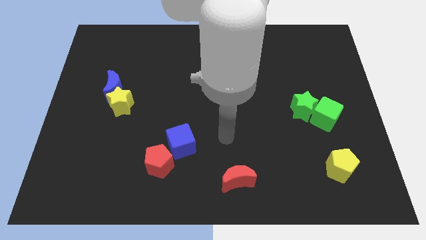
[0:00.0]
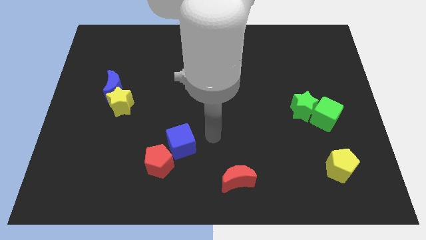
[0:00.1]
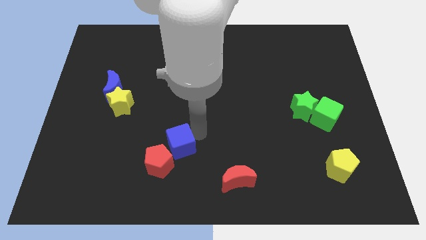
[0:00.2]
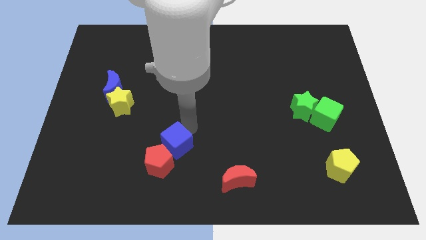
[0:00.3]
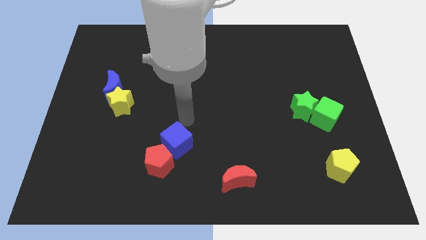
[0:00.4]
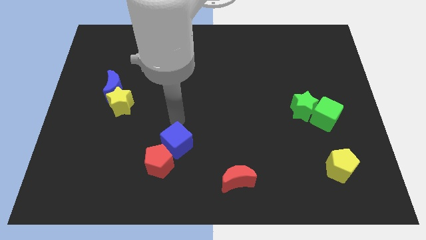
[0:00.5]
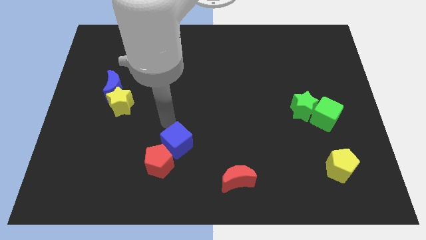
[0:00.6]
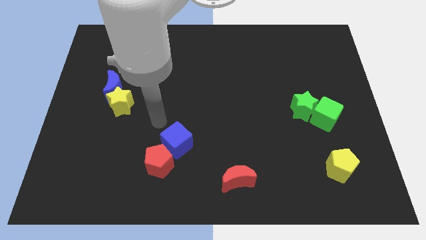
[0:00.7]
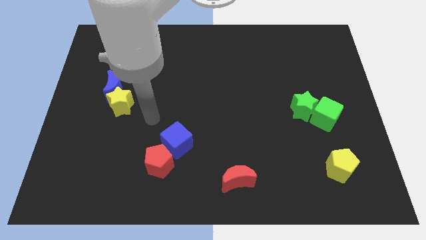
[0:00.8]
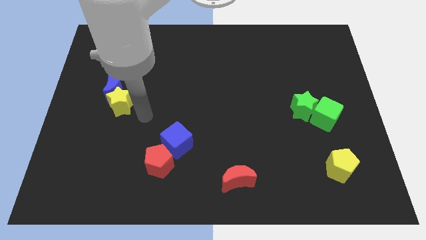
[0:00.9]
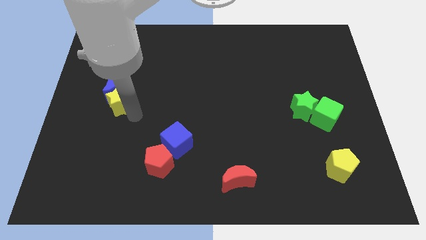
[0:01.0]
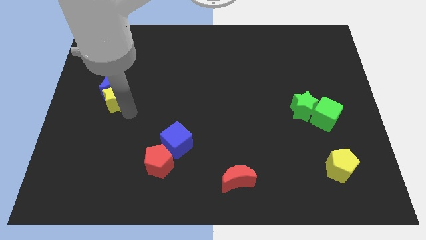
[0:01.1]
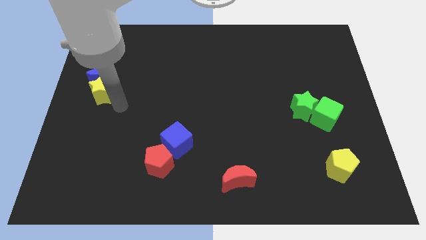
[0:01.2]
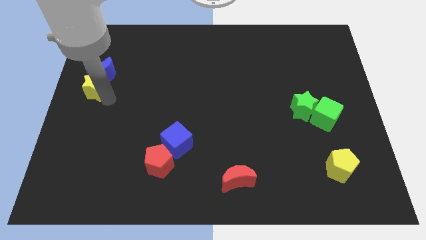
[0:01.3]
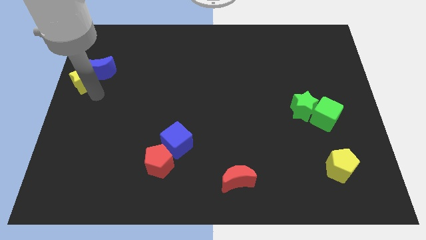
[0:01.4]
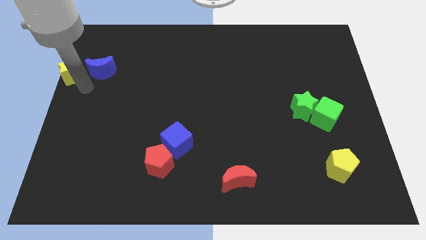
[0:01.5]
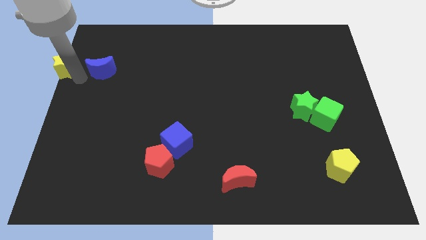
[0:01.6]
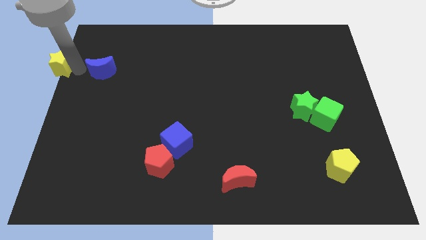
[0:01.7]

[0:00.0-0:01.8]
move the blue moon away from the yellow star

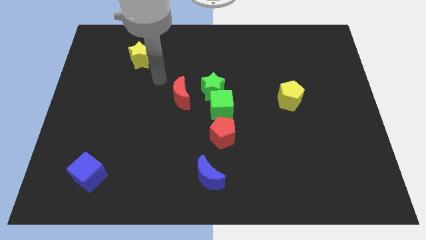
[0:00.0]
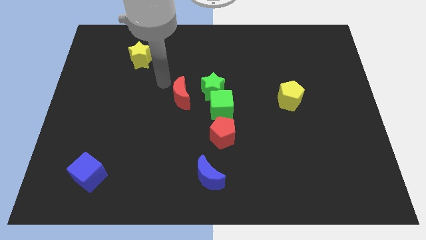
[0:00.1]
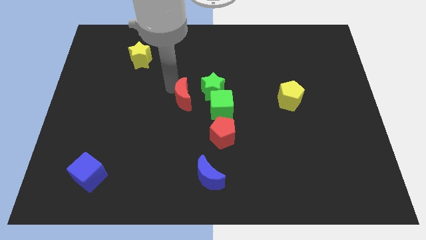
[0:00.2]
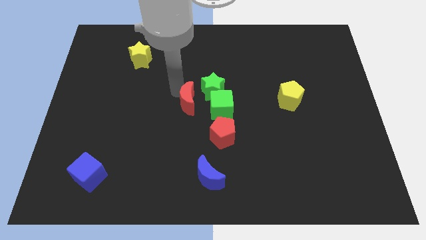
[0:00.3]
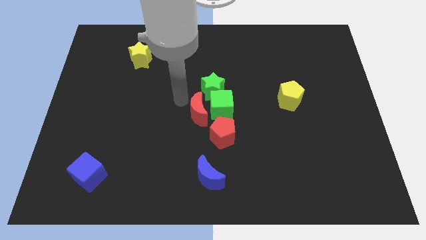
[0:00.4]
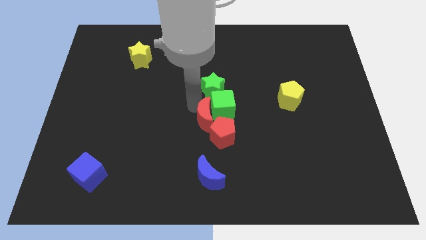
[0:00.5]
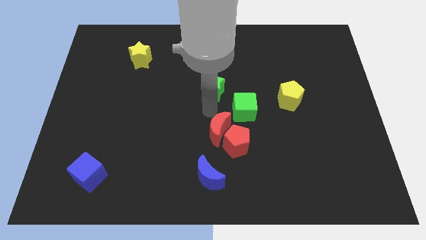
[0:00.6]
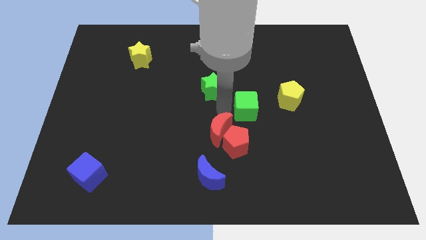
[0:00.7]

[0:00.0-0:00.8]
separate the green star from the green cube and red moon

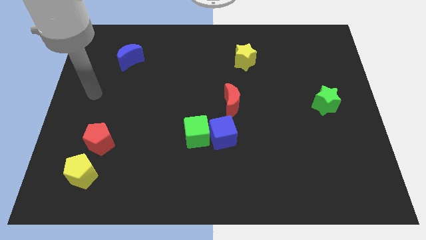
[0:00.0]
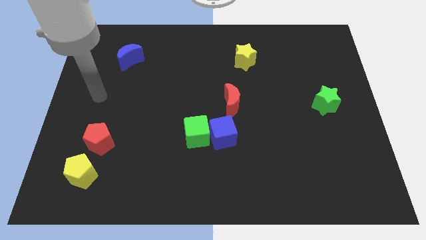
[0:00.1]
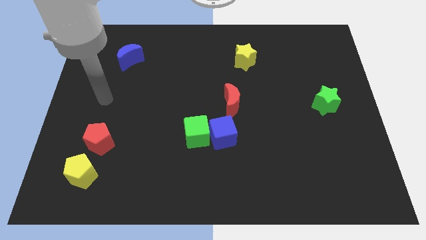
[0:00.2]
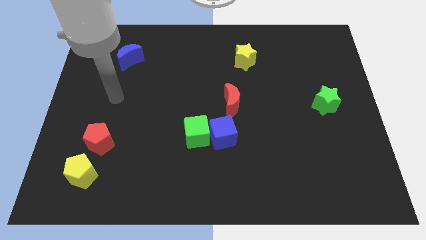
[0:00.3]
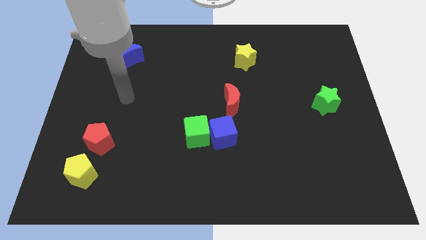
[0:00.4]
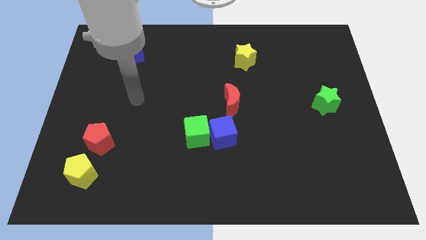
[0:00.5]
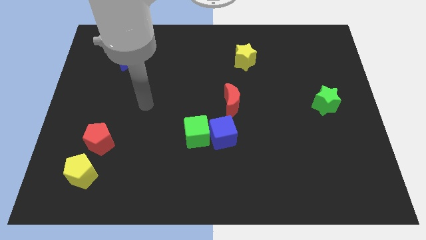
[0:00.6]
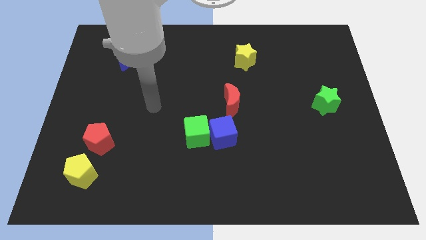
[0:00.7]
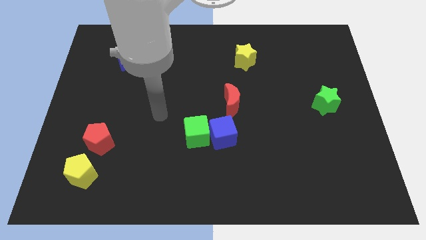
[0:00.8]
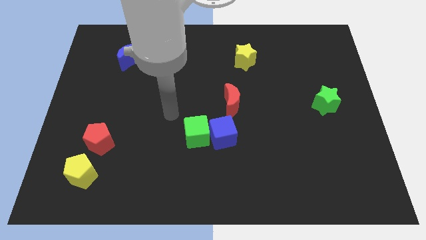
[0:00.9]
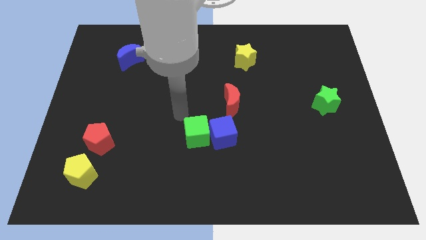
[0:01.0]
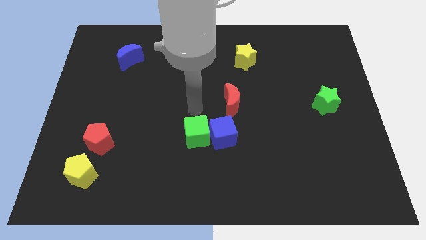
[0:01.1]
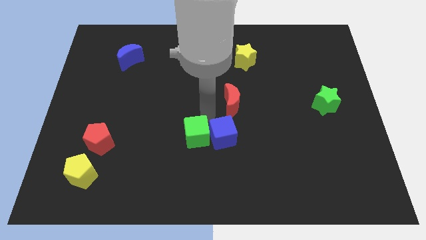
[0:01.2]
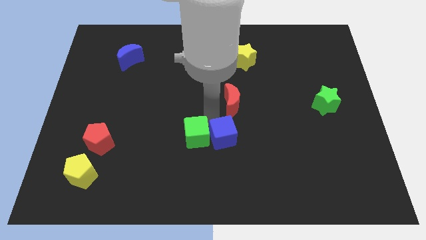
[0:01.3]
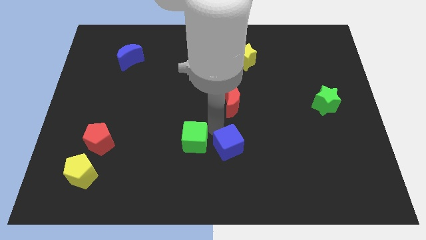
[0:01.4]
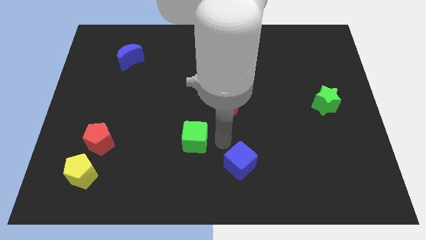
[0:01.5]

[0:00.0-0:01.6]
move the green cube away from the blue cube

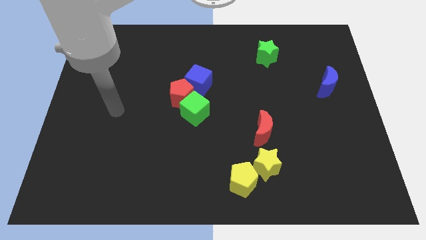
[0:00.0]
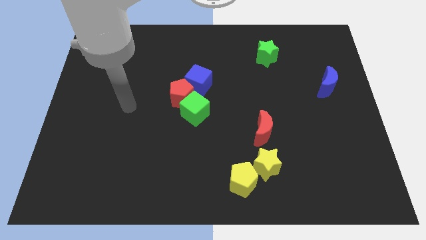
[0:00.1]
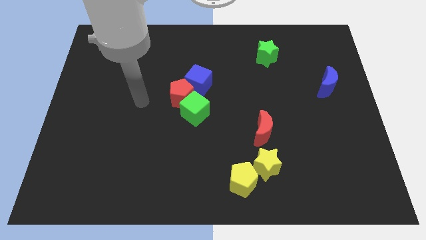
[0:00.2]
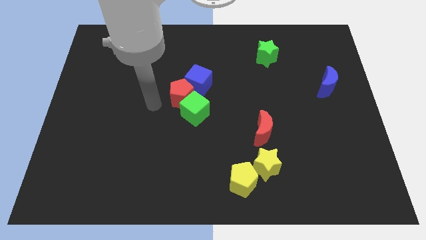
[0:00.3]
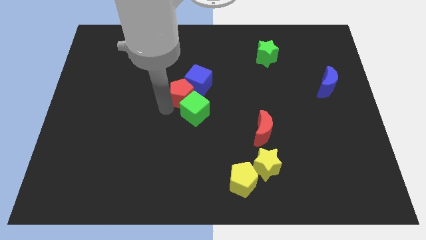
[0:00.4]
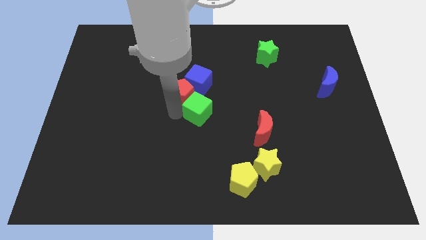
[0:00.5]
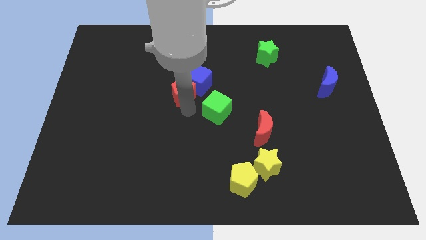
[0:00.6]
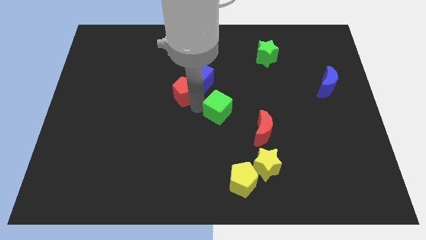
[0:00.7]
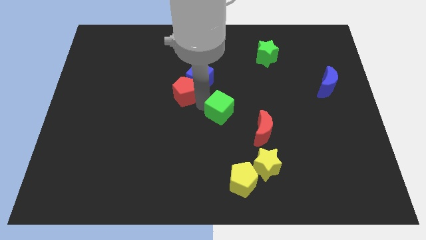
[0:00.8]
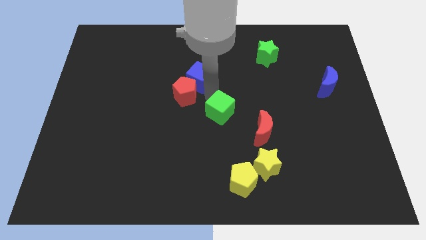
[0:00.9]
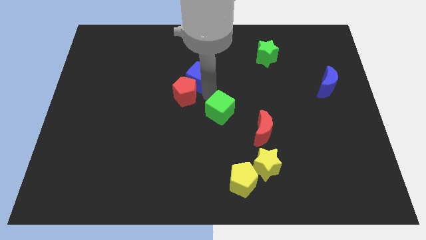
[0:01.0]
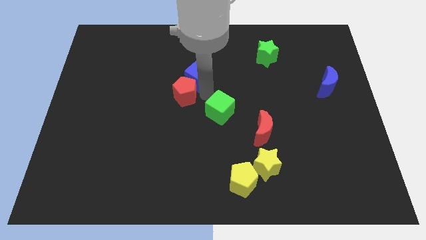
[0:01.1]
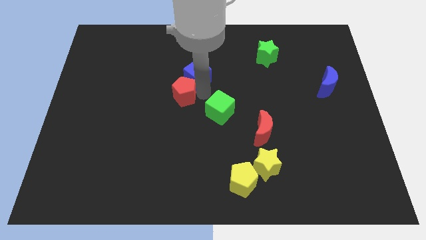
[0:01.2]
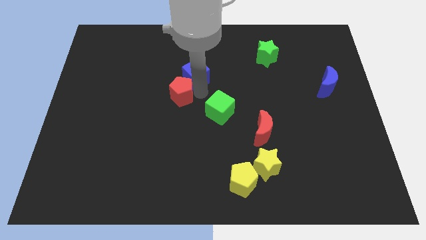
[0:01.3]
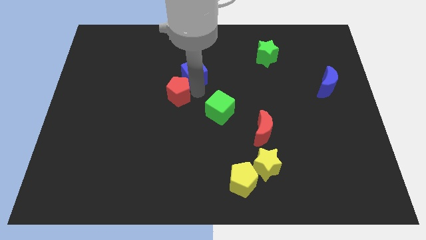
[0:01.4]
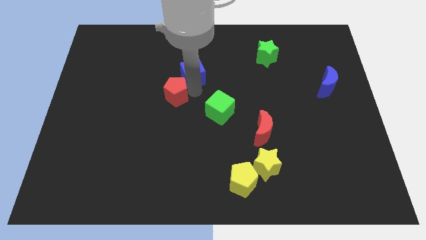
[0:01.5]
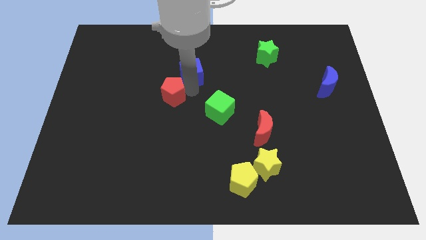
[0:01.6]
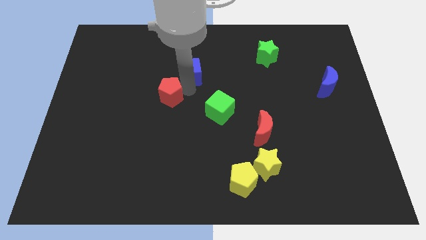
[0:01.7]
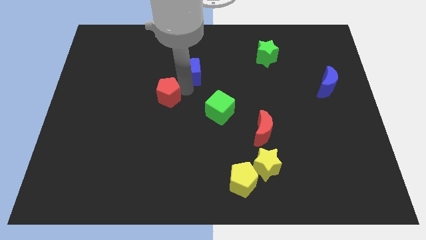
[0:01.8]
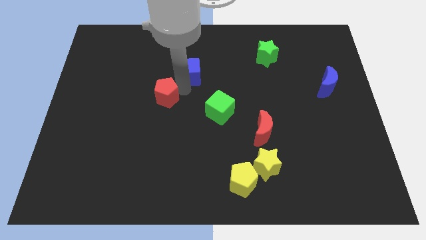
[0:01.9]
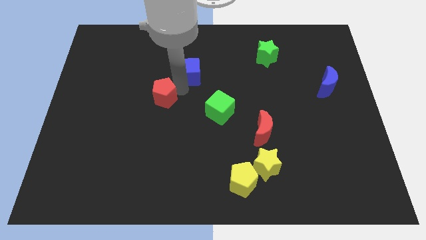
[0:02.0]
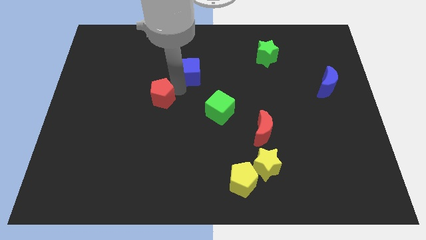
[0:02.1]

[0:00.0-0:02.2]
pull the red pentagon apart from the green cube and blue cube

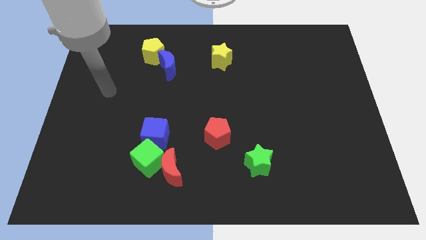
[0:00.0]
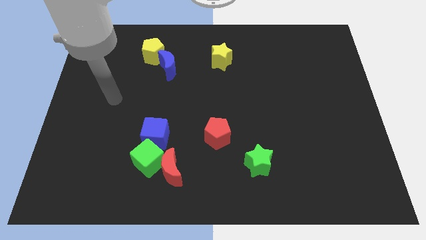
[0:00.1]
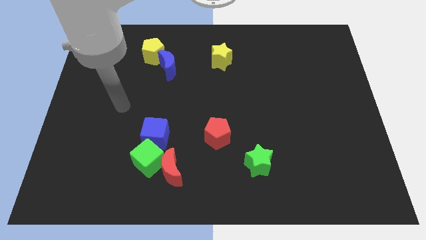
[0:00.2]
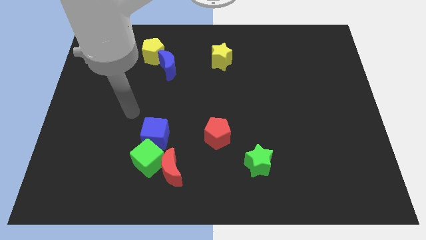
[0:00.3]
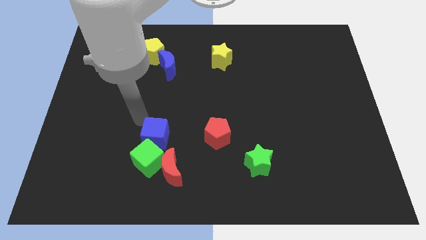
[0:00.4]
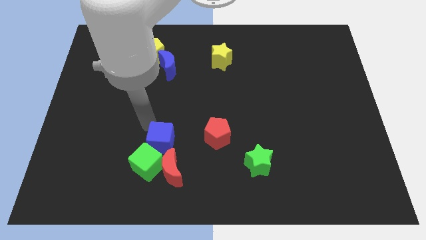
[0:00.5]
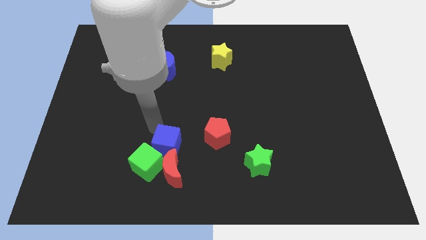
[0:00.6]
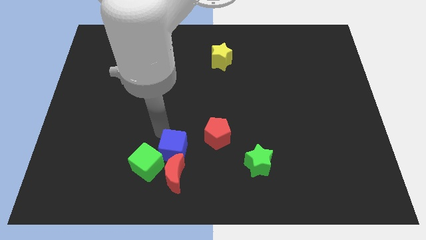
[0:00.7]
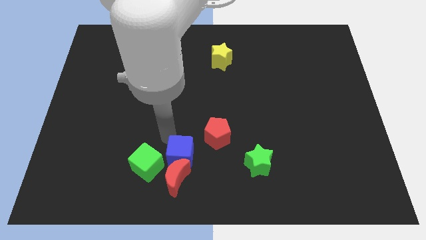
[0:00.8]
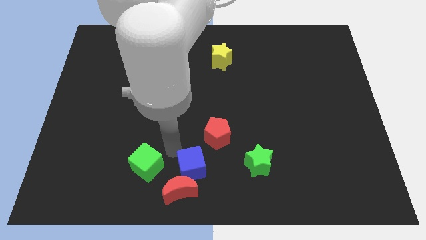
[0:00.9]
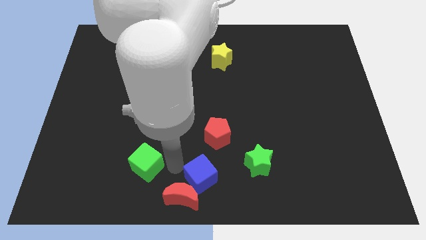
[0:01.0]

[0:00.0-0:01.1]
separate the green cube from the red moon and blue cube

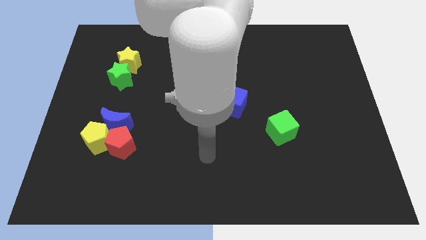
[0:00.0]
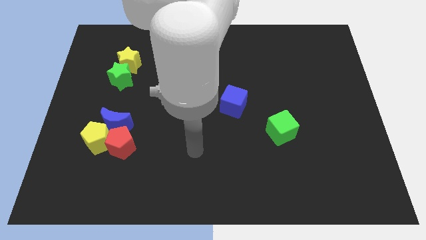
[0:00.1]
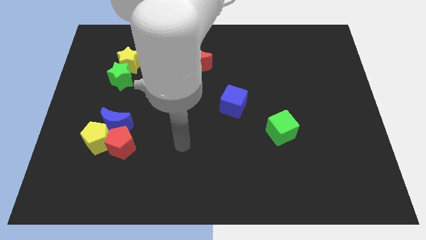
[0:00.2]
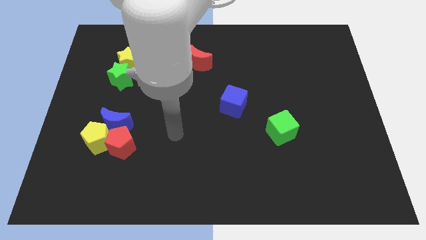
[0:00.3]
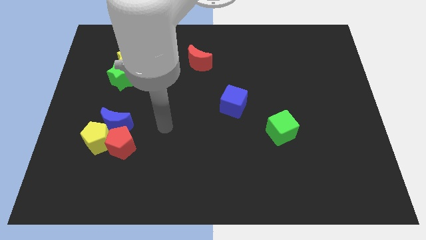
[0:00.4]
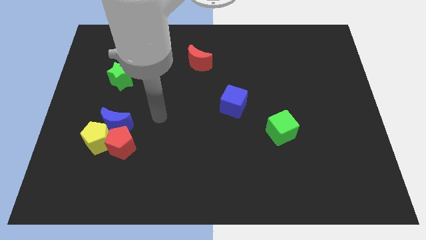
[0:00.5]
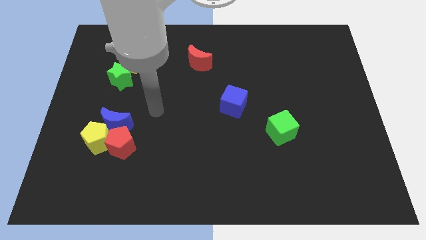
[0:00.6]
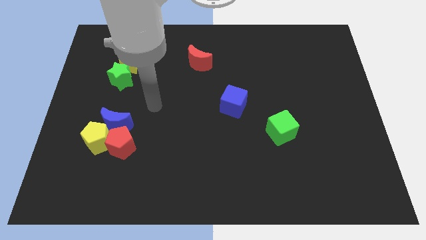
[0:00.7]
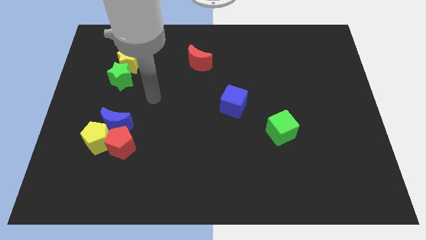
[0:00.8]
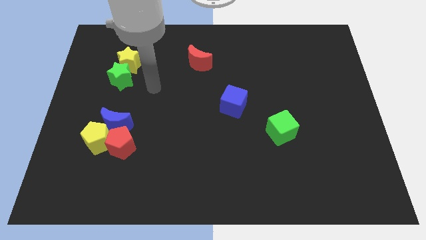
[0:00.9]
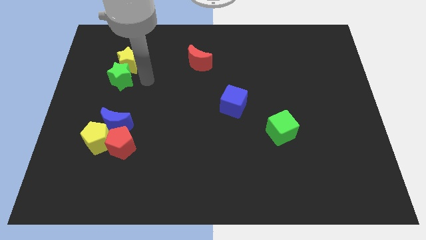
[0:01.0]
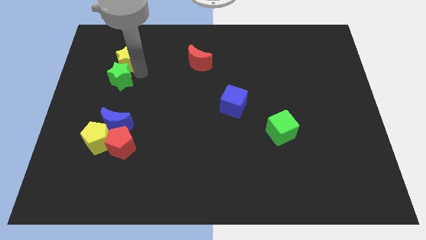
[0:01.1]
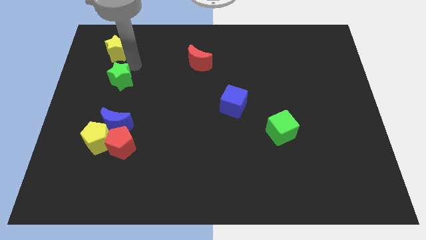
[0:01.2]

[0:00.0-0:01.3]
move the green star away from the yellow star

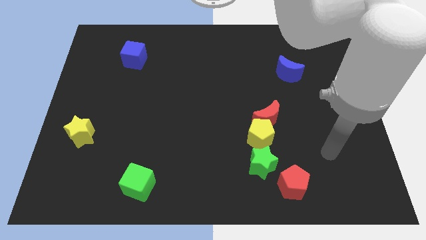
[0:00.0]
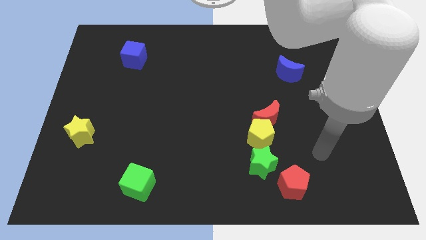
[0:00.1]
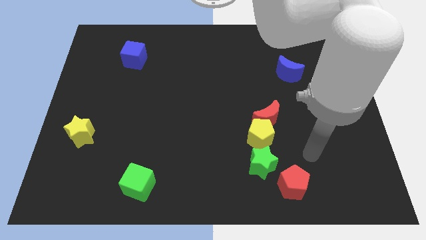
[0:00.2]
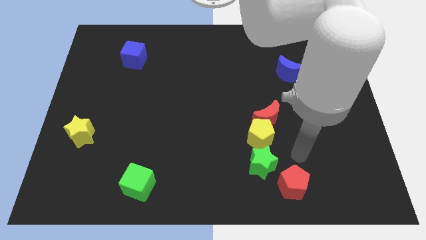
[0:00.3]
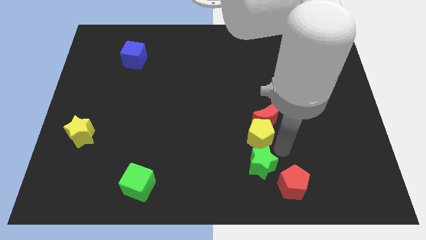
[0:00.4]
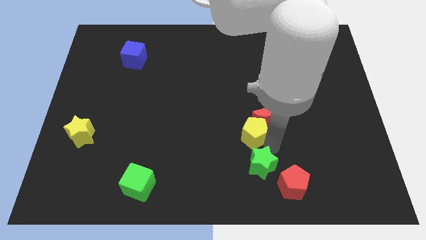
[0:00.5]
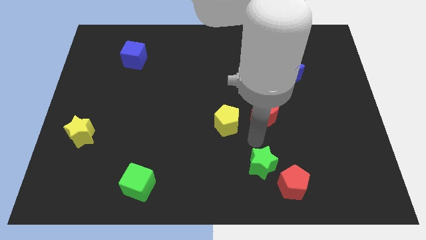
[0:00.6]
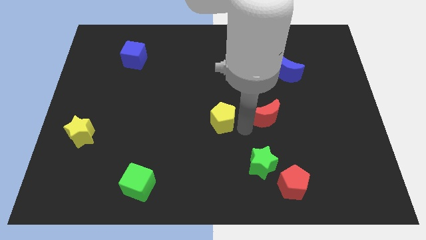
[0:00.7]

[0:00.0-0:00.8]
move the red moon away from the yellow pentagon
